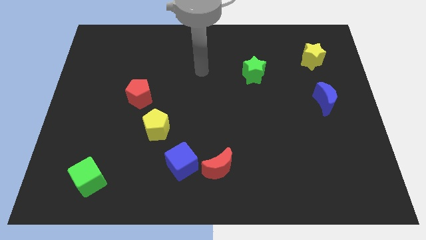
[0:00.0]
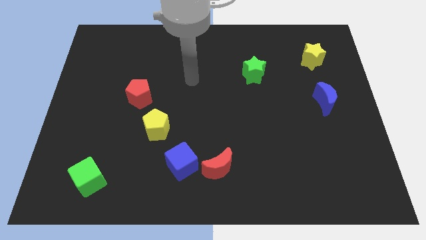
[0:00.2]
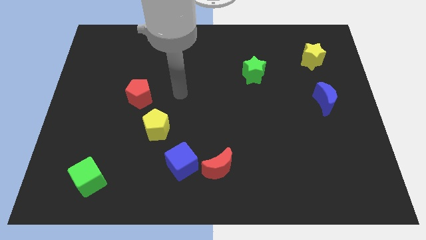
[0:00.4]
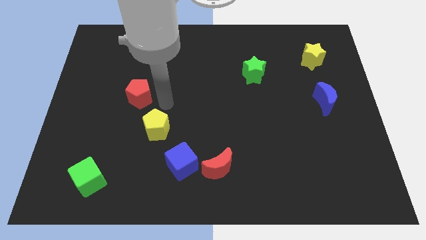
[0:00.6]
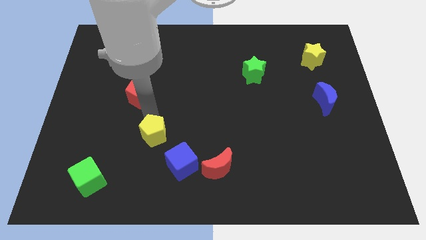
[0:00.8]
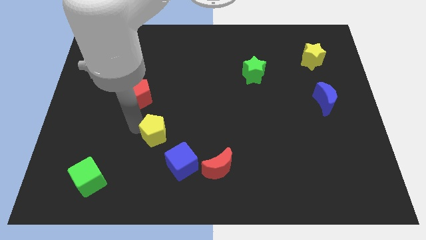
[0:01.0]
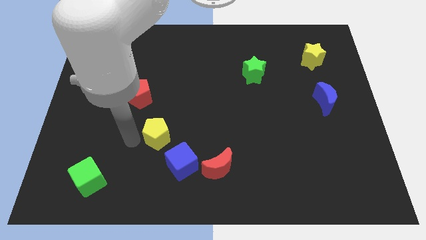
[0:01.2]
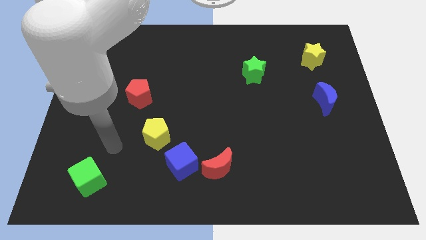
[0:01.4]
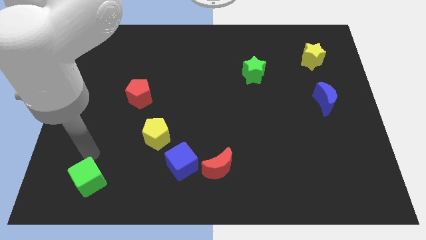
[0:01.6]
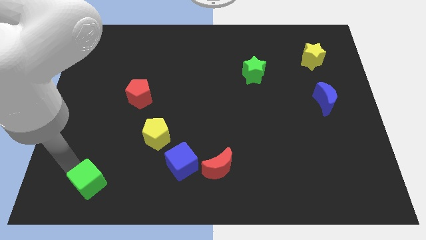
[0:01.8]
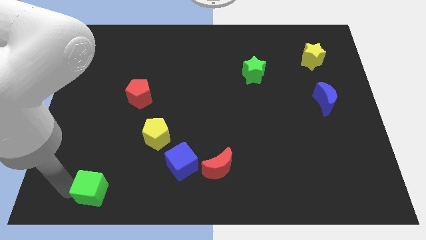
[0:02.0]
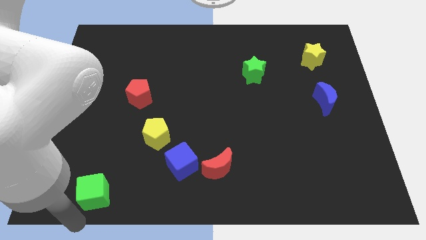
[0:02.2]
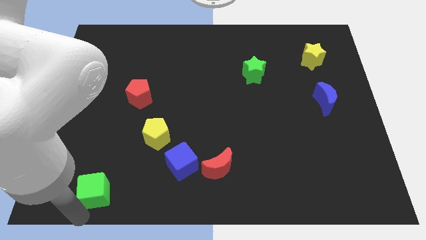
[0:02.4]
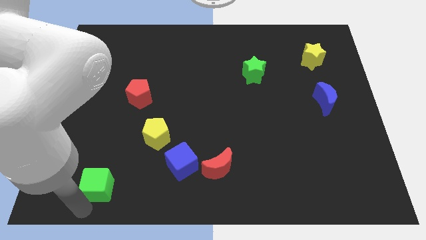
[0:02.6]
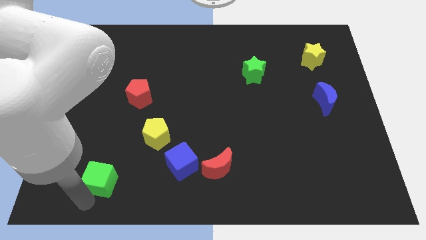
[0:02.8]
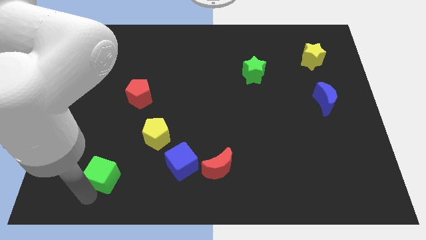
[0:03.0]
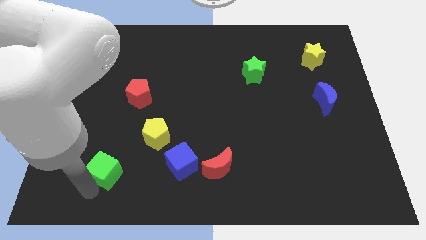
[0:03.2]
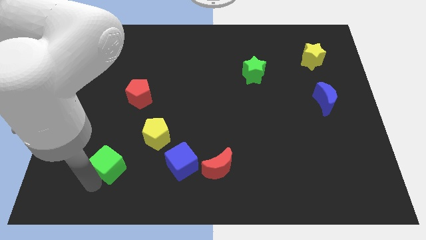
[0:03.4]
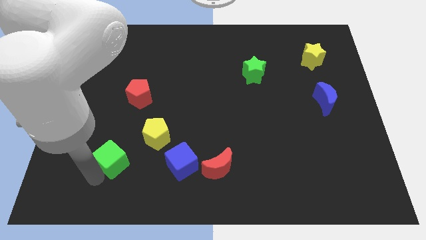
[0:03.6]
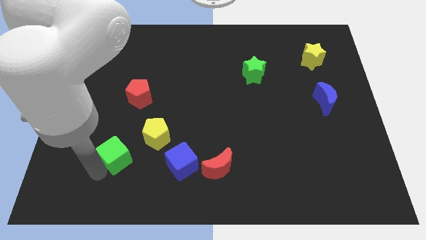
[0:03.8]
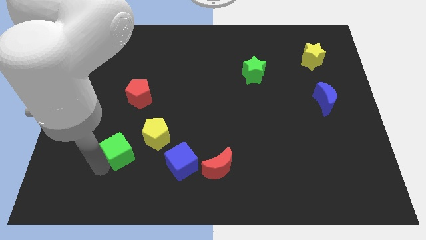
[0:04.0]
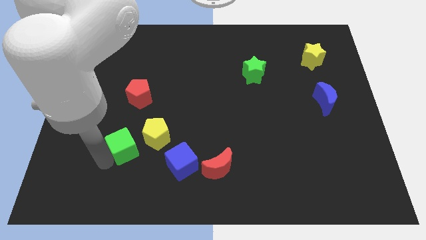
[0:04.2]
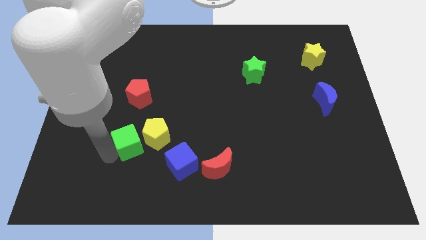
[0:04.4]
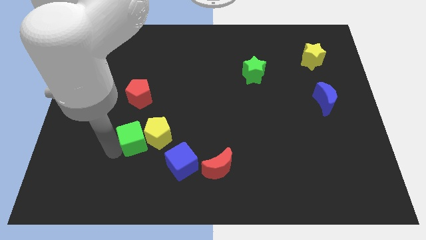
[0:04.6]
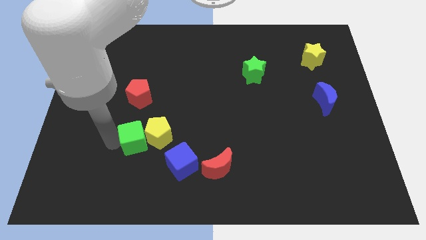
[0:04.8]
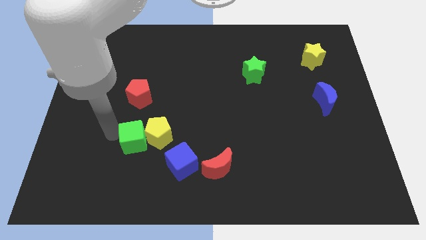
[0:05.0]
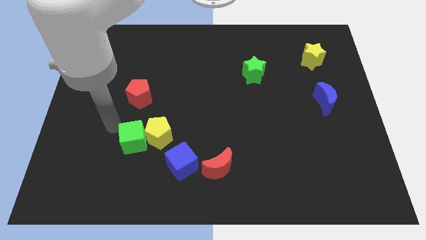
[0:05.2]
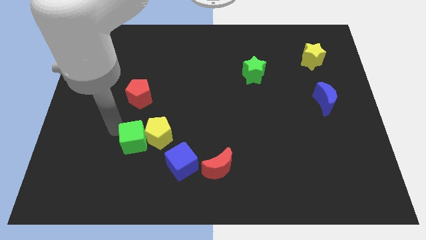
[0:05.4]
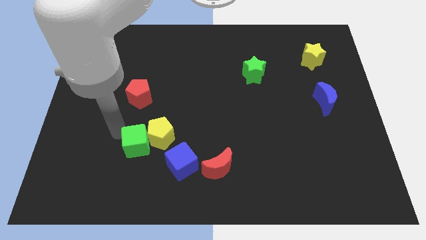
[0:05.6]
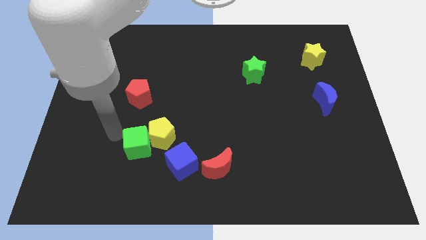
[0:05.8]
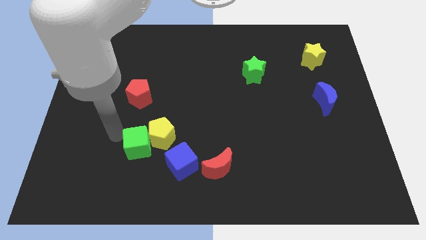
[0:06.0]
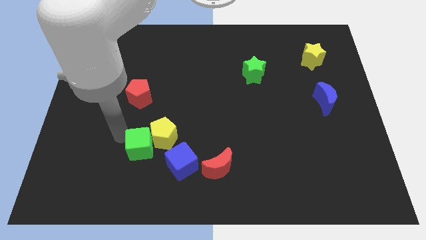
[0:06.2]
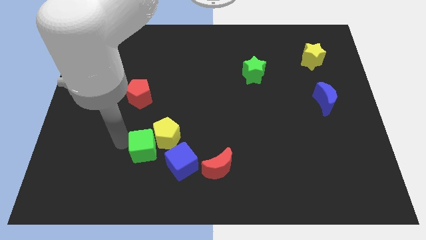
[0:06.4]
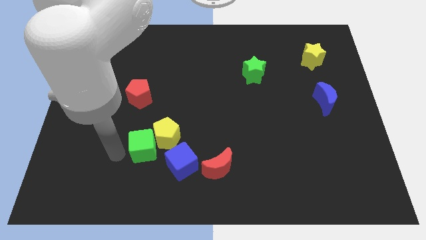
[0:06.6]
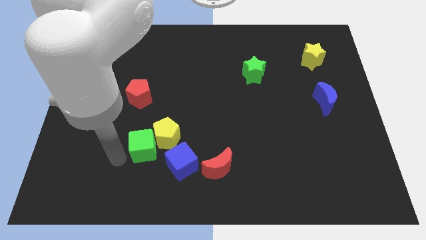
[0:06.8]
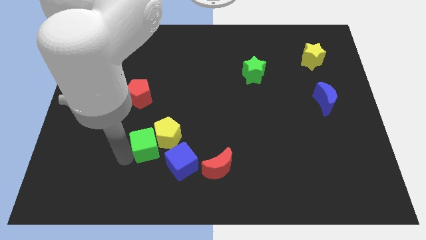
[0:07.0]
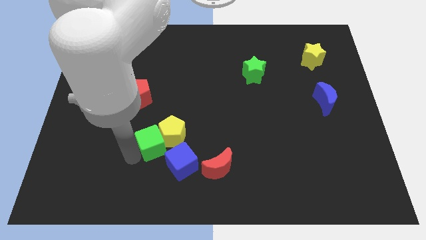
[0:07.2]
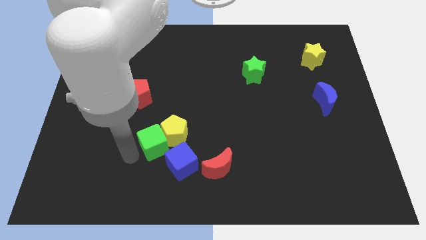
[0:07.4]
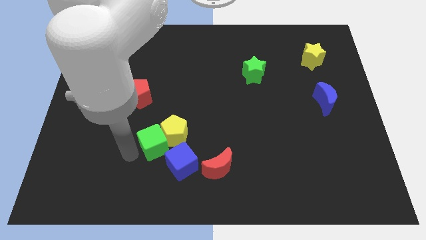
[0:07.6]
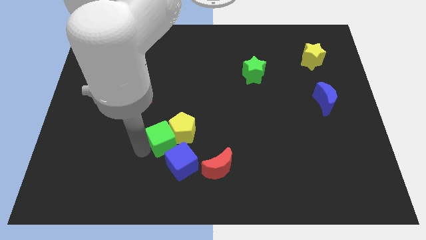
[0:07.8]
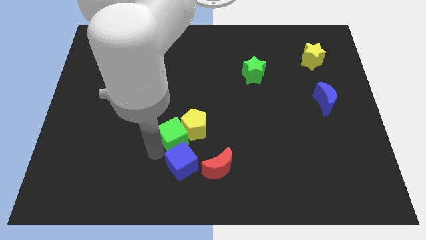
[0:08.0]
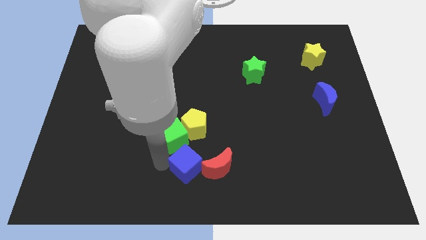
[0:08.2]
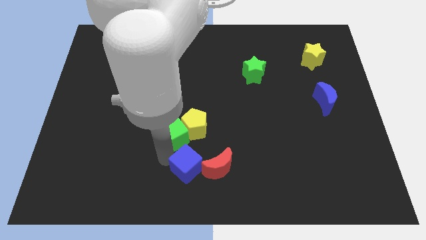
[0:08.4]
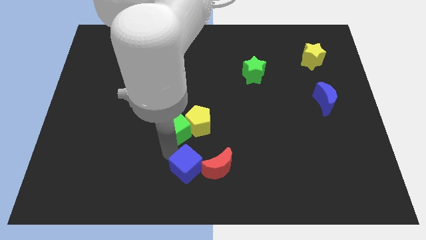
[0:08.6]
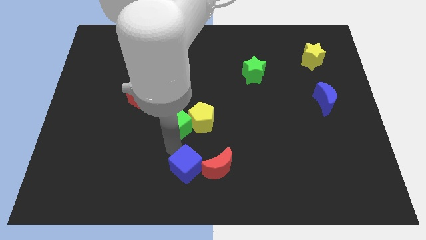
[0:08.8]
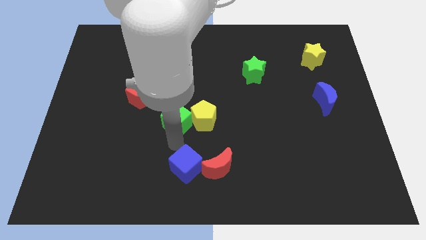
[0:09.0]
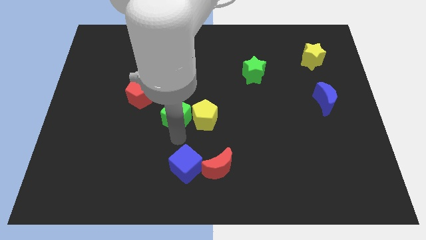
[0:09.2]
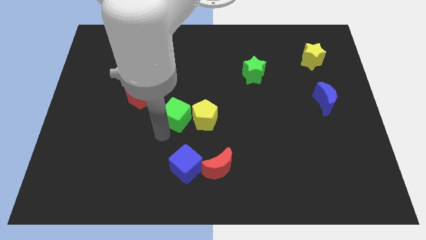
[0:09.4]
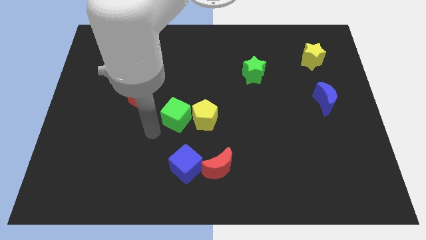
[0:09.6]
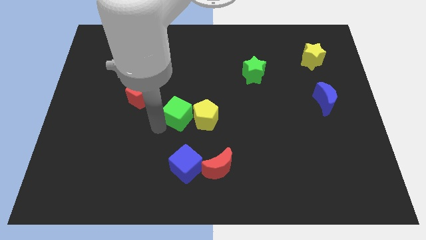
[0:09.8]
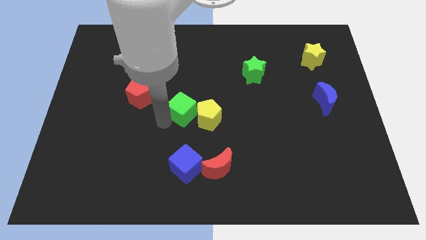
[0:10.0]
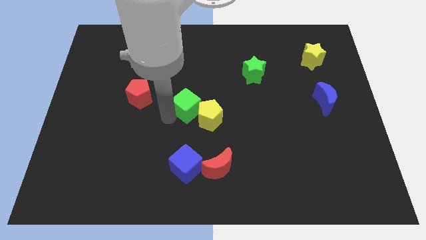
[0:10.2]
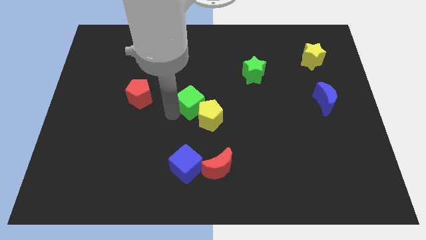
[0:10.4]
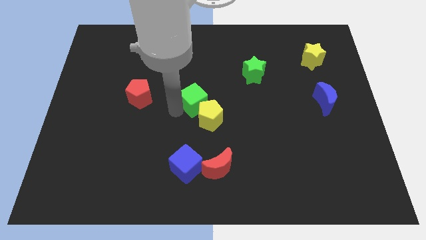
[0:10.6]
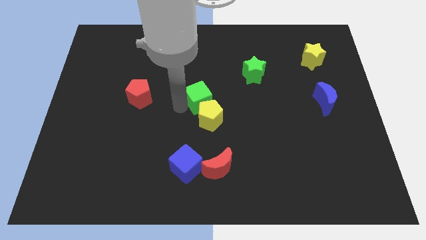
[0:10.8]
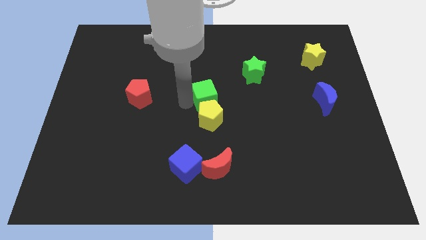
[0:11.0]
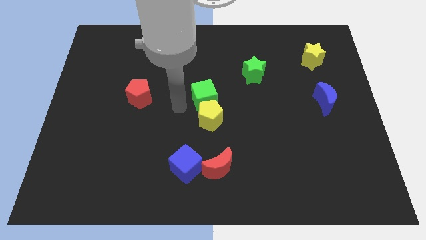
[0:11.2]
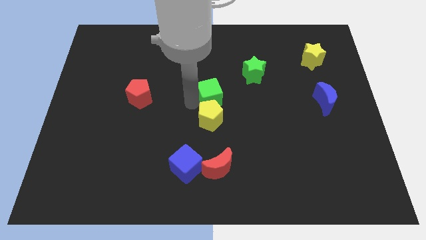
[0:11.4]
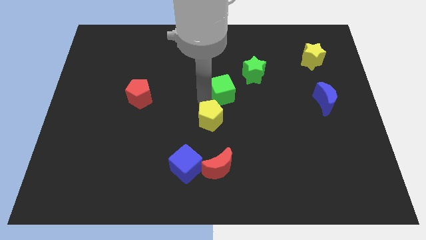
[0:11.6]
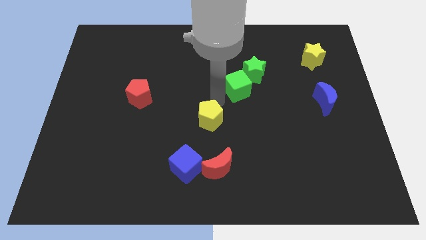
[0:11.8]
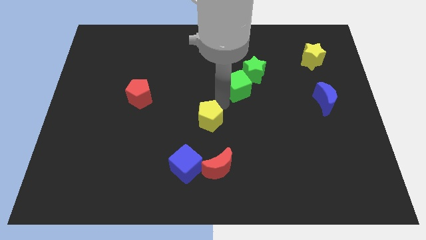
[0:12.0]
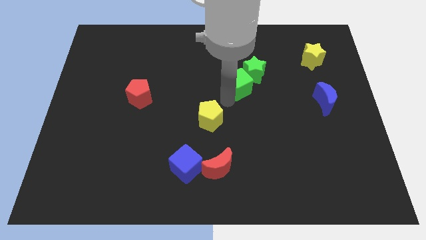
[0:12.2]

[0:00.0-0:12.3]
move the green cube to the green star

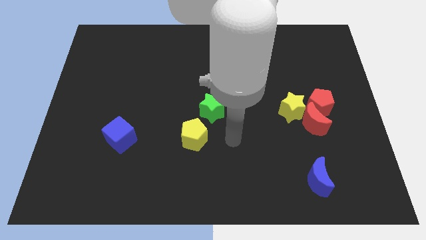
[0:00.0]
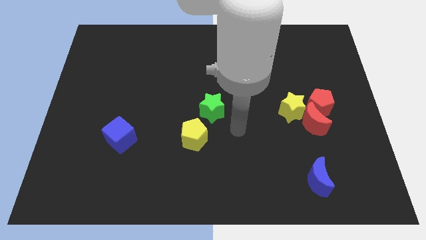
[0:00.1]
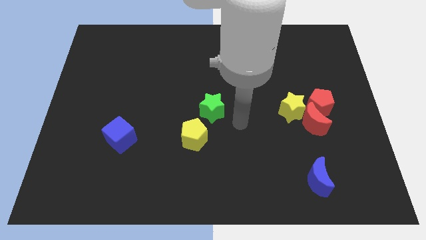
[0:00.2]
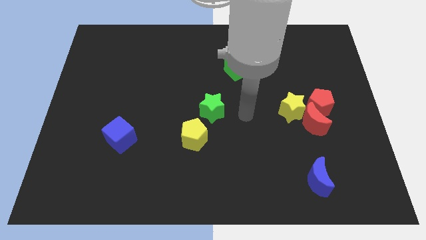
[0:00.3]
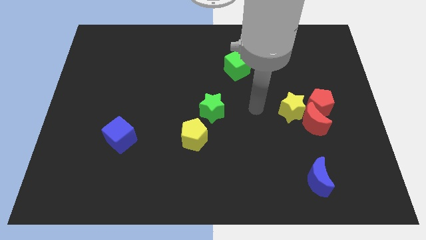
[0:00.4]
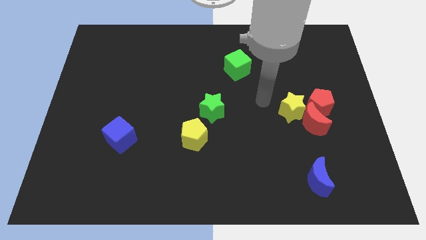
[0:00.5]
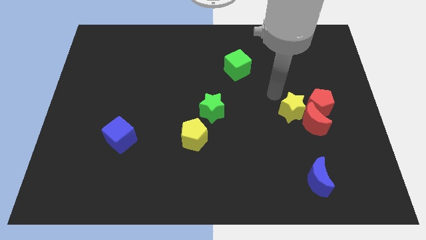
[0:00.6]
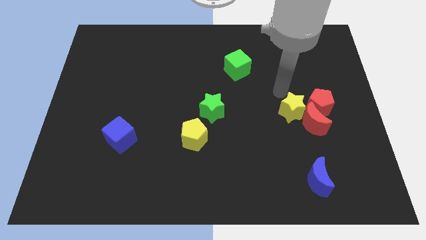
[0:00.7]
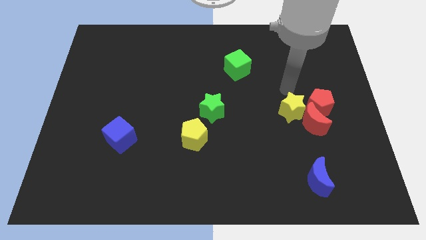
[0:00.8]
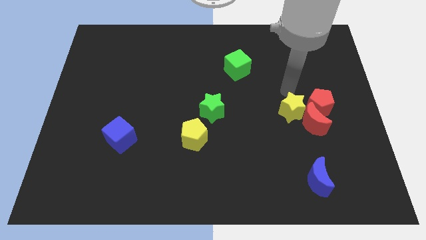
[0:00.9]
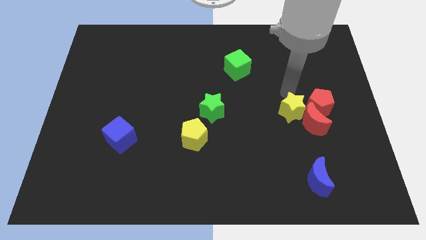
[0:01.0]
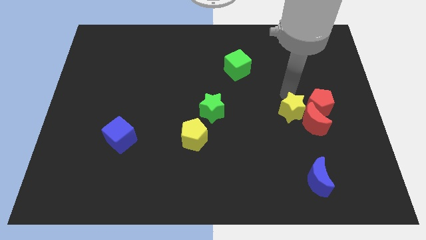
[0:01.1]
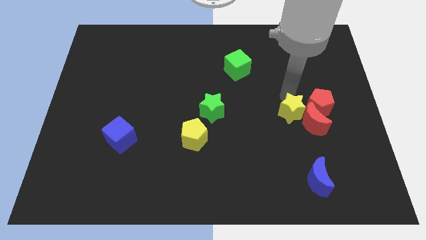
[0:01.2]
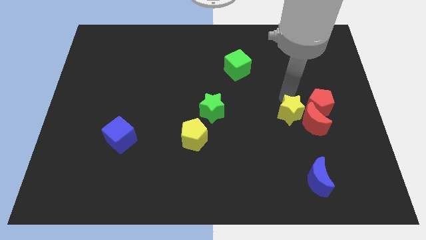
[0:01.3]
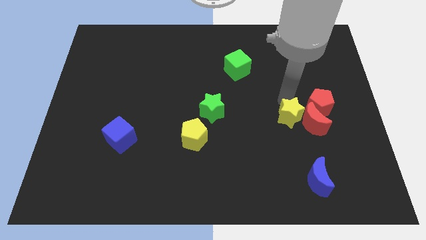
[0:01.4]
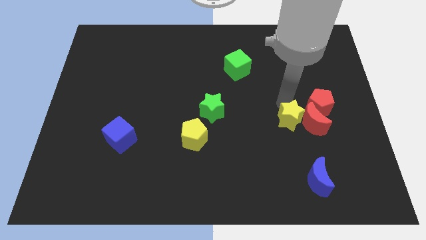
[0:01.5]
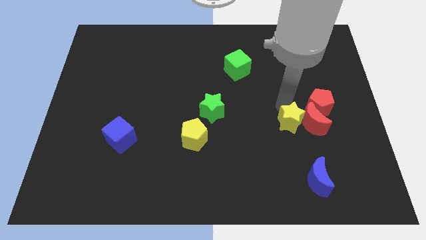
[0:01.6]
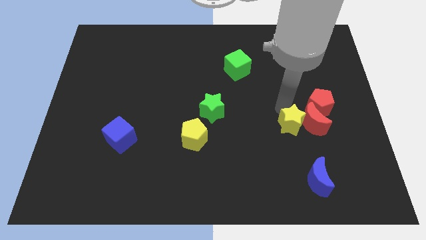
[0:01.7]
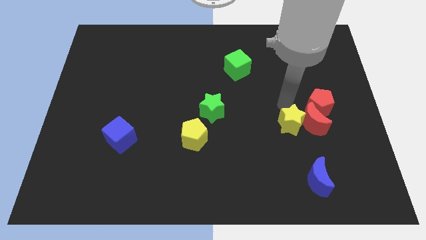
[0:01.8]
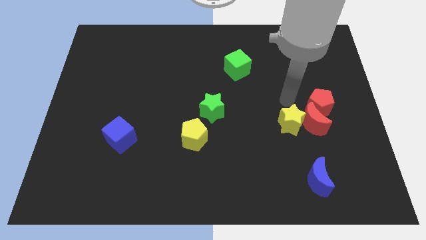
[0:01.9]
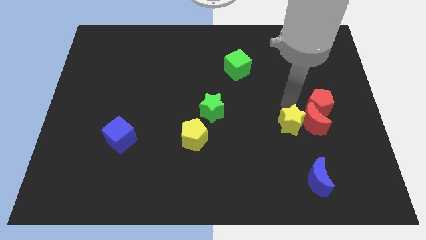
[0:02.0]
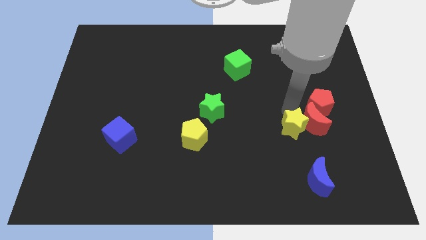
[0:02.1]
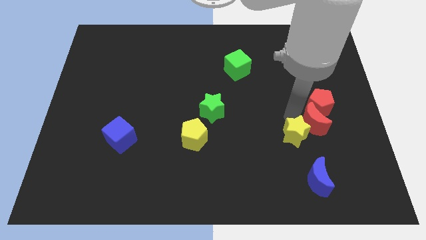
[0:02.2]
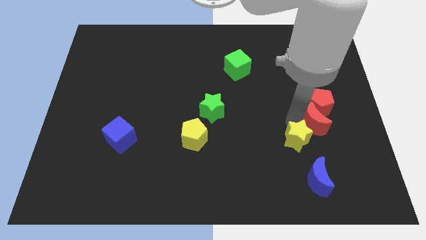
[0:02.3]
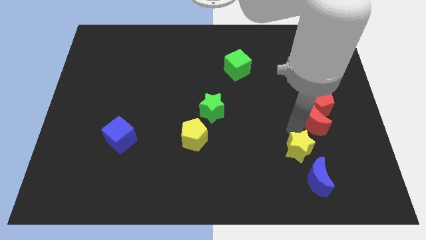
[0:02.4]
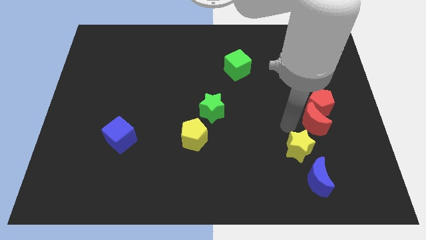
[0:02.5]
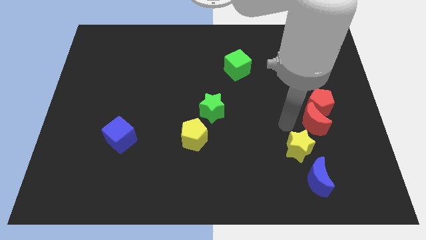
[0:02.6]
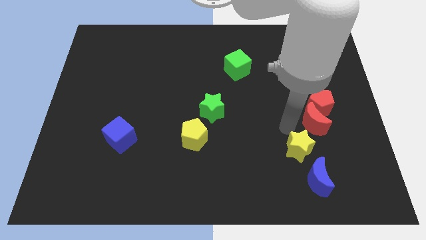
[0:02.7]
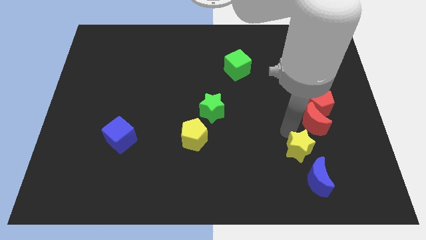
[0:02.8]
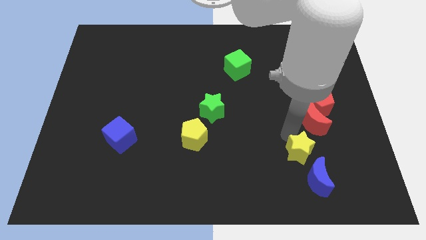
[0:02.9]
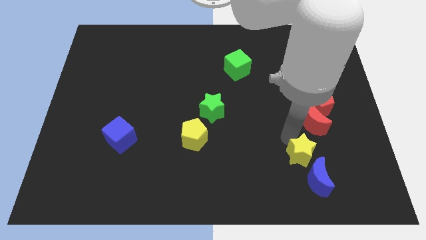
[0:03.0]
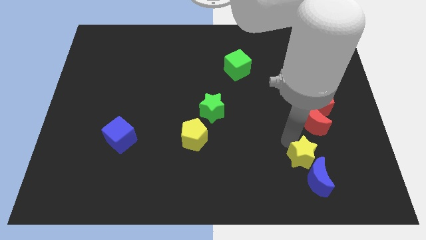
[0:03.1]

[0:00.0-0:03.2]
put the yellow star close to the blue moon
